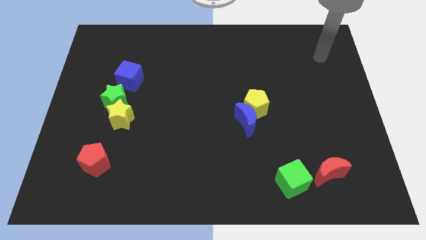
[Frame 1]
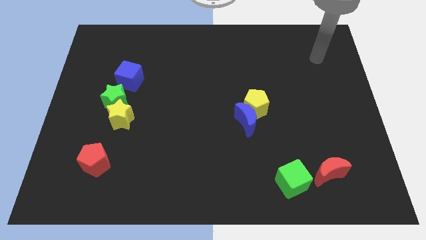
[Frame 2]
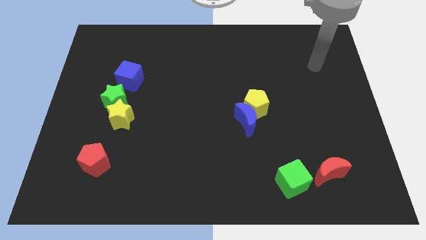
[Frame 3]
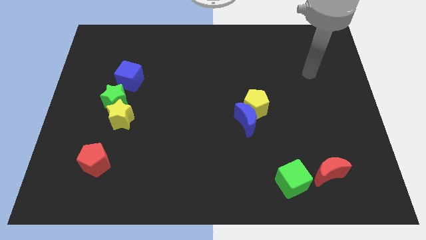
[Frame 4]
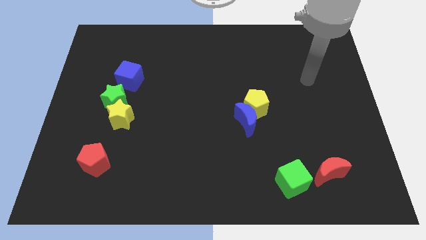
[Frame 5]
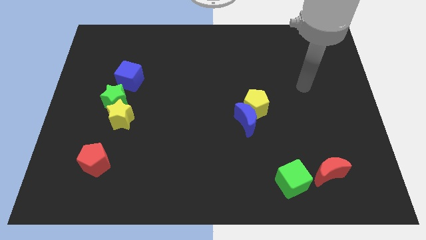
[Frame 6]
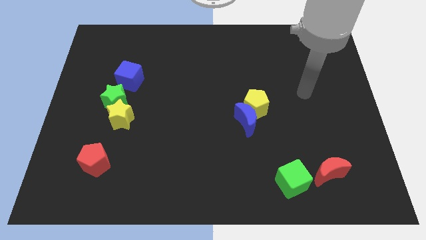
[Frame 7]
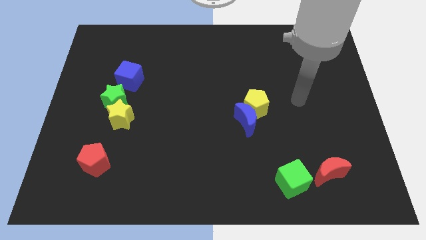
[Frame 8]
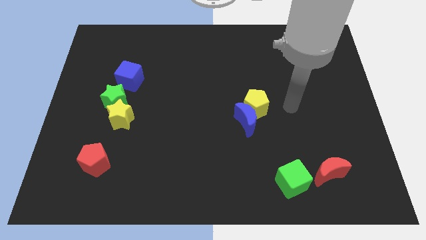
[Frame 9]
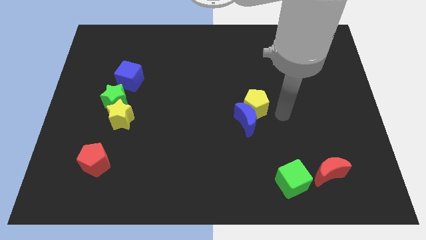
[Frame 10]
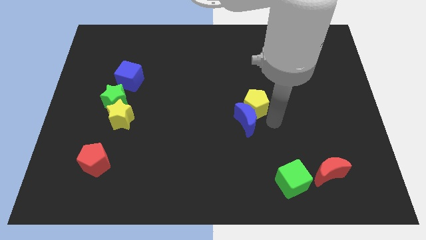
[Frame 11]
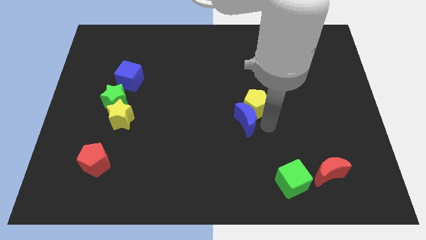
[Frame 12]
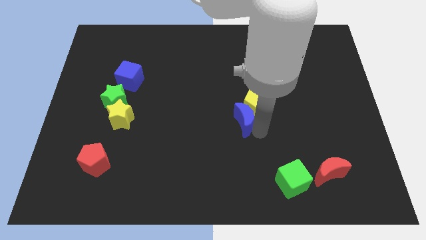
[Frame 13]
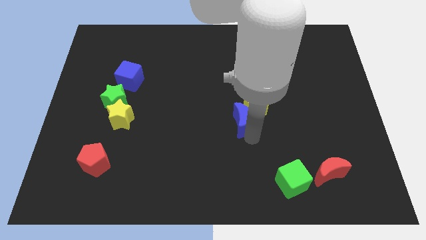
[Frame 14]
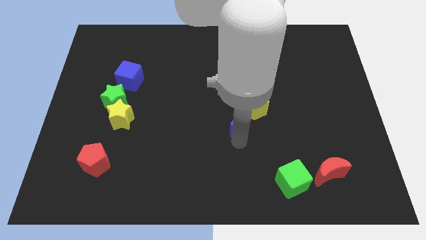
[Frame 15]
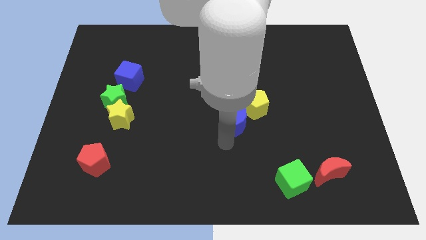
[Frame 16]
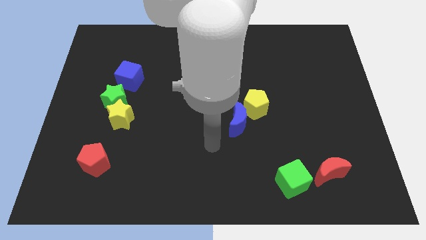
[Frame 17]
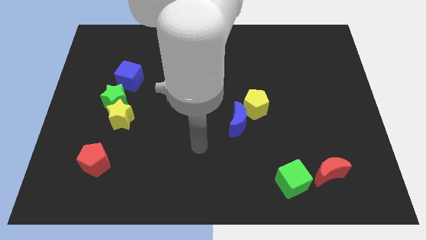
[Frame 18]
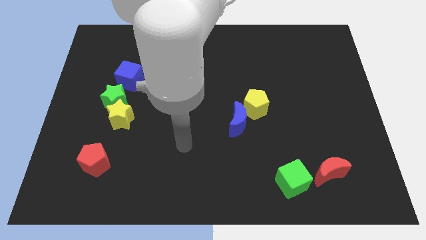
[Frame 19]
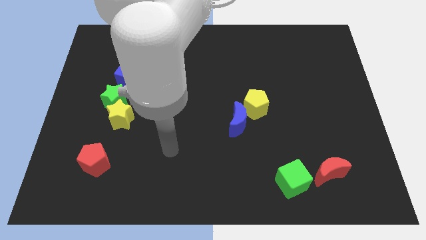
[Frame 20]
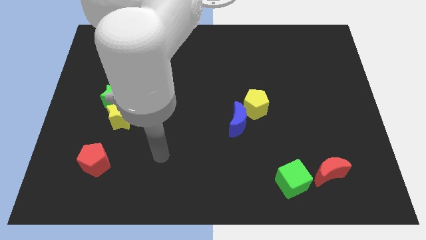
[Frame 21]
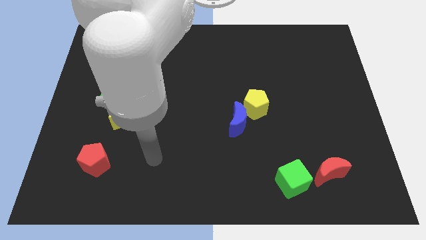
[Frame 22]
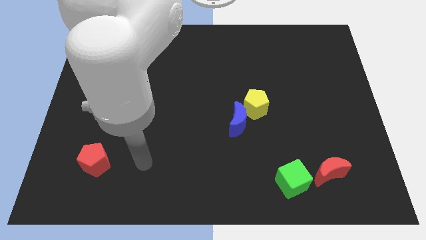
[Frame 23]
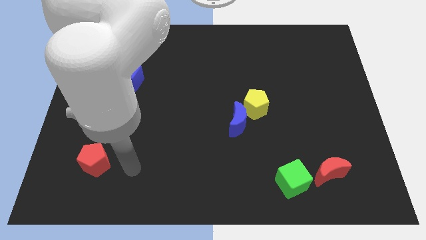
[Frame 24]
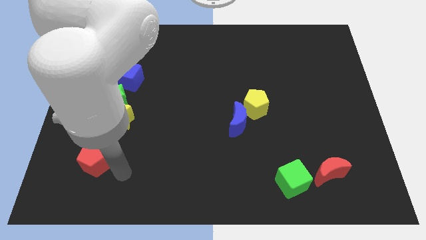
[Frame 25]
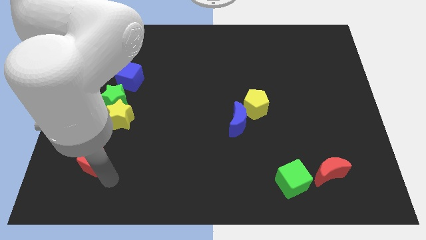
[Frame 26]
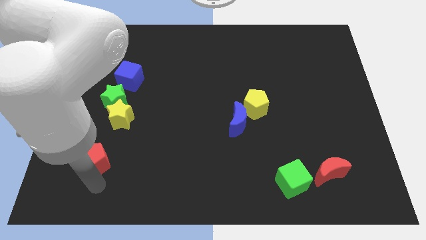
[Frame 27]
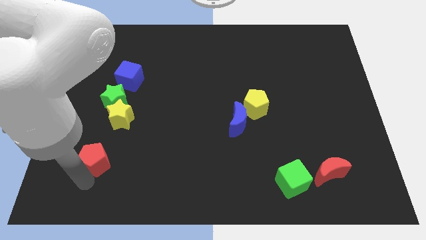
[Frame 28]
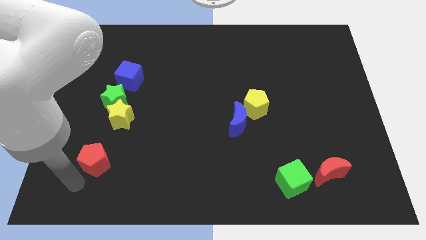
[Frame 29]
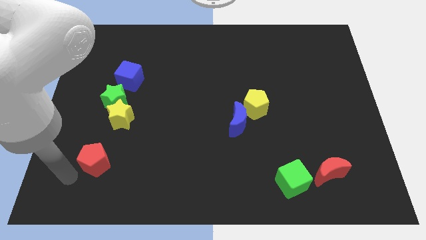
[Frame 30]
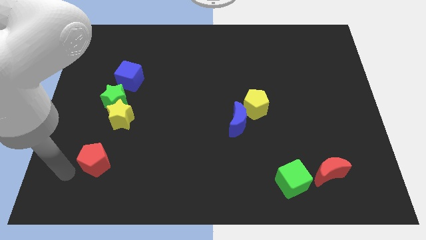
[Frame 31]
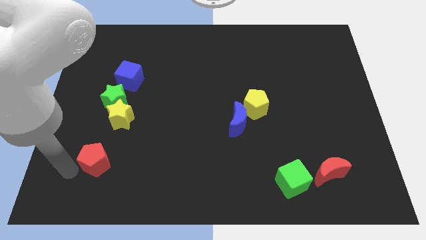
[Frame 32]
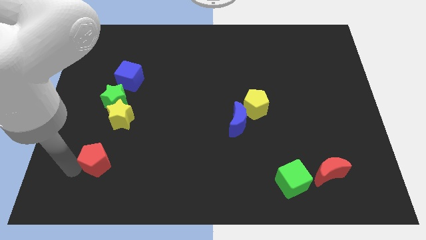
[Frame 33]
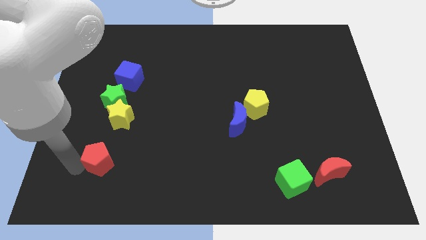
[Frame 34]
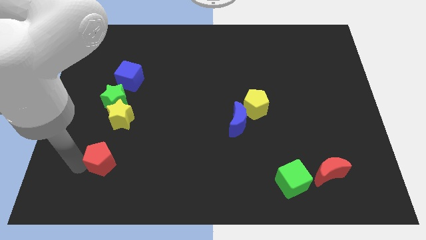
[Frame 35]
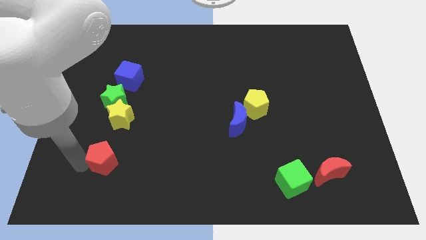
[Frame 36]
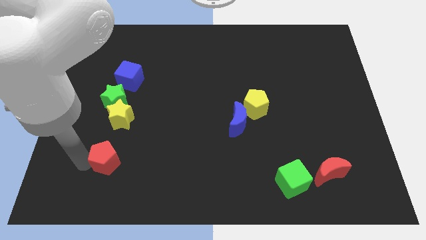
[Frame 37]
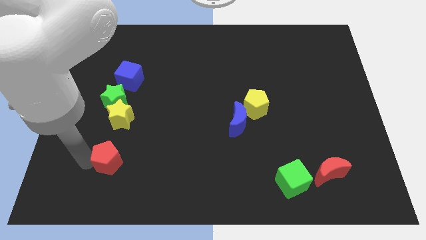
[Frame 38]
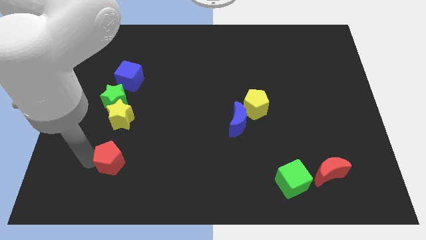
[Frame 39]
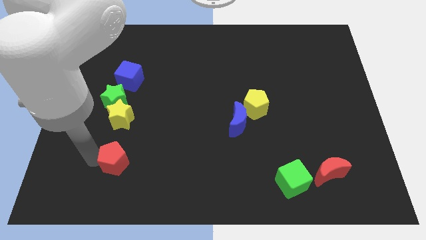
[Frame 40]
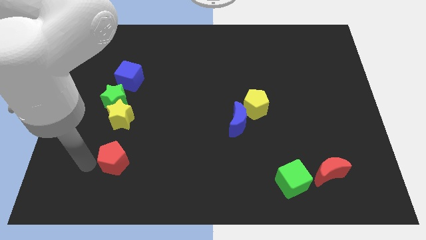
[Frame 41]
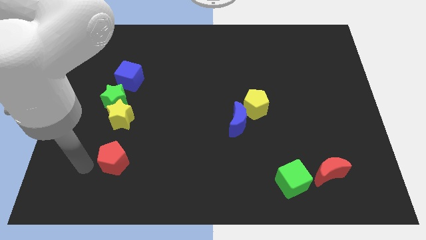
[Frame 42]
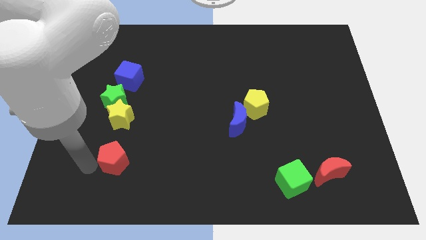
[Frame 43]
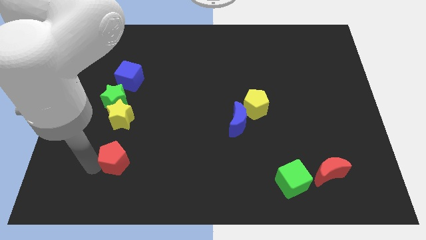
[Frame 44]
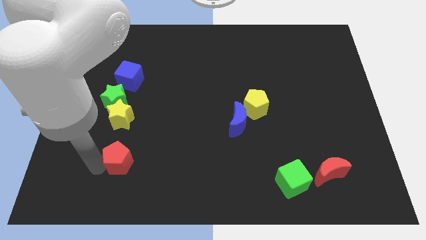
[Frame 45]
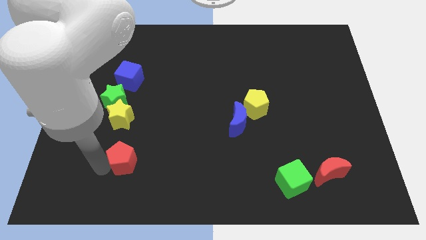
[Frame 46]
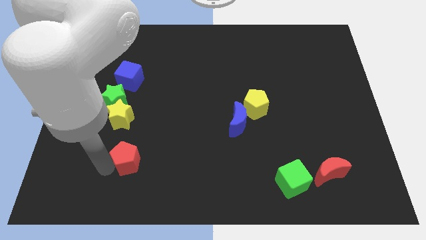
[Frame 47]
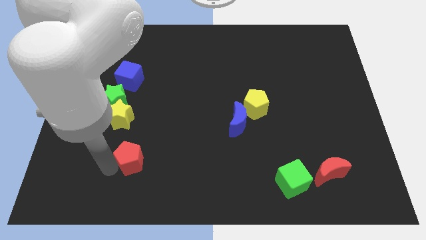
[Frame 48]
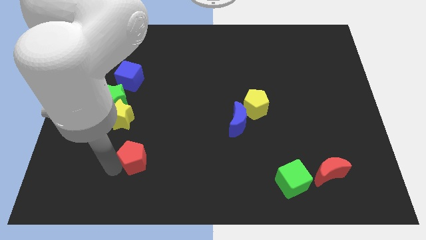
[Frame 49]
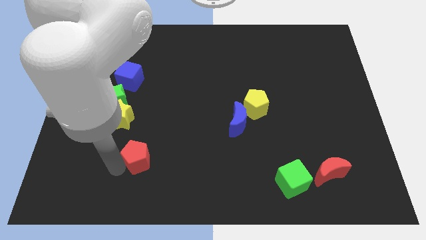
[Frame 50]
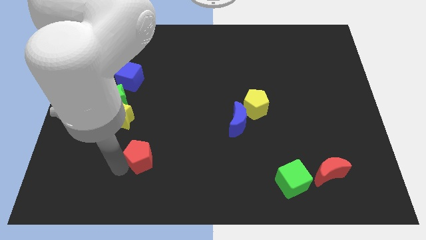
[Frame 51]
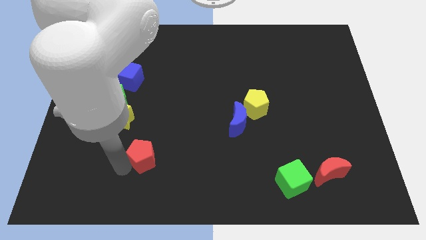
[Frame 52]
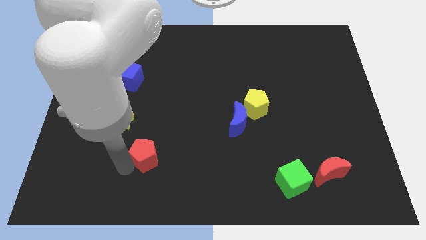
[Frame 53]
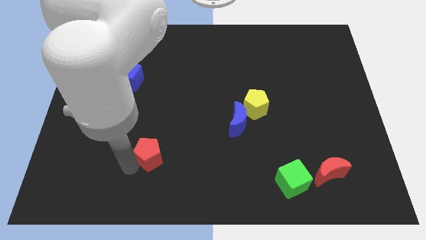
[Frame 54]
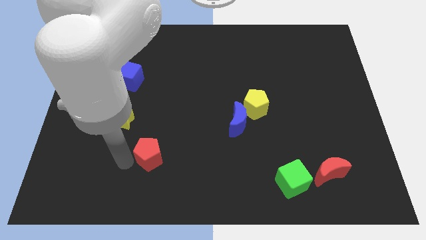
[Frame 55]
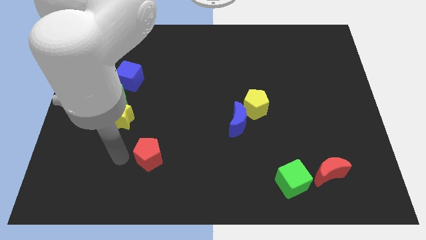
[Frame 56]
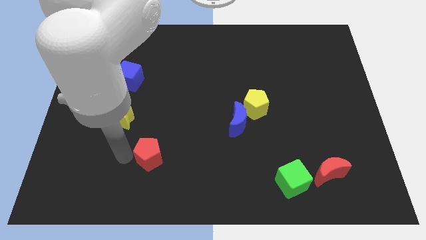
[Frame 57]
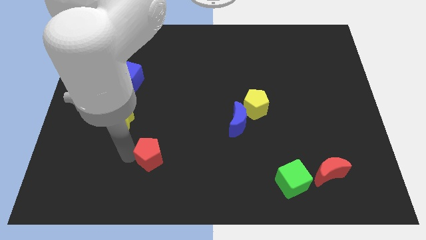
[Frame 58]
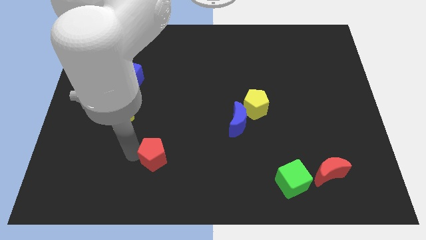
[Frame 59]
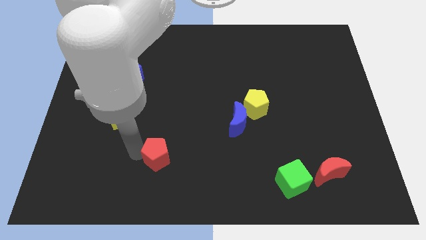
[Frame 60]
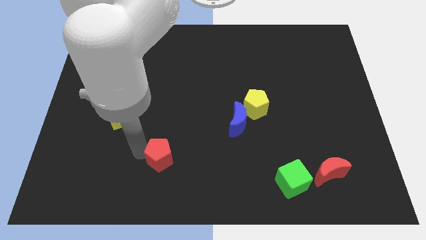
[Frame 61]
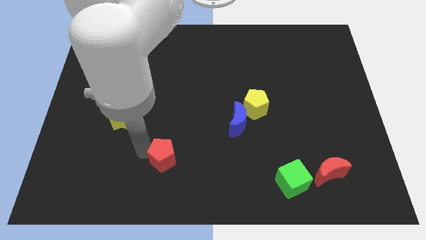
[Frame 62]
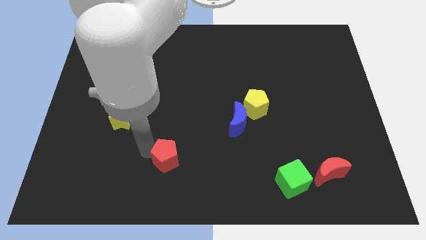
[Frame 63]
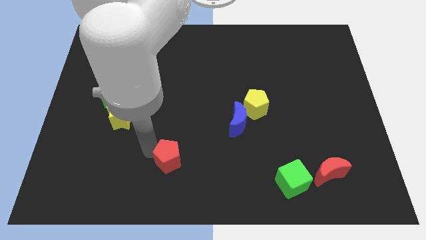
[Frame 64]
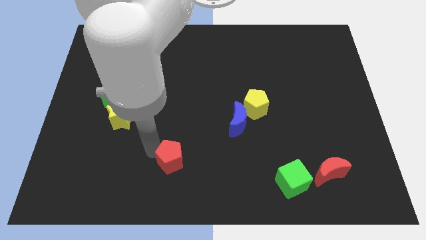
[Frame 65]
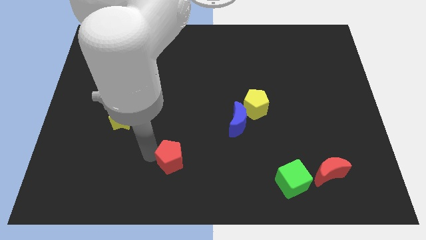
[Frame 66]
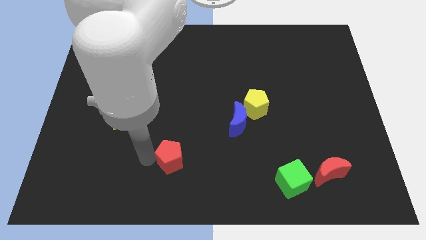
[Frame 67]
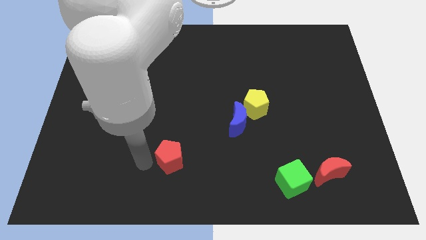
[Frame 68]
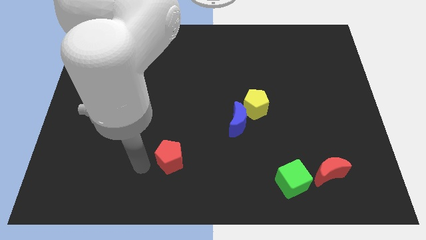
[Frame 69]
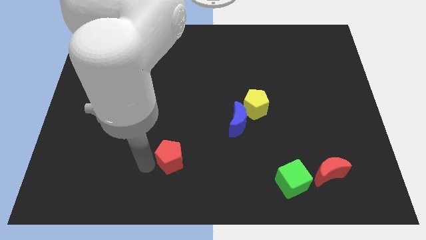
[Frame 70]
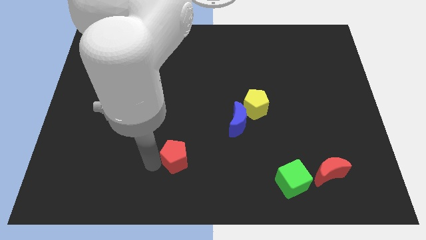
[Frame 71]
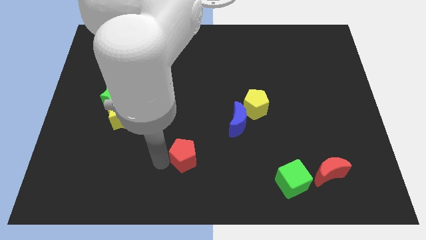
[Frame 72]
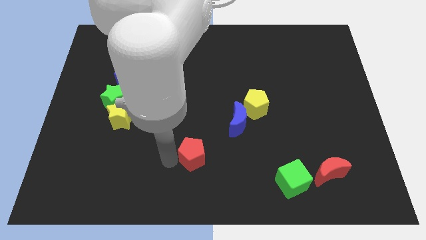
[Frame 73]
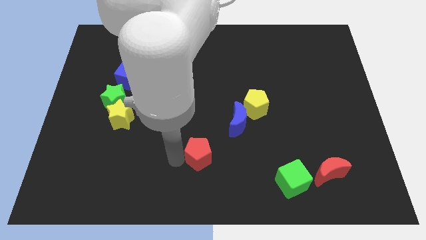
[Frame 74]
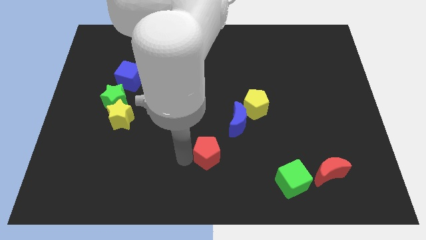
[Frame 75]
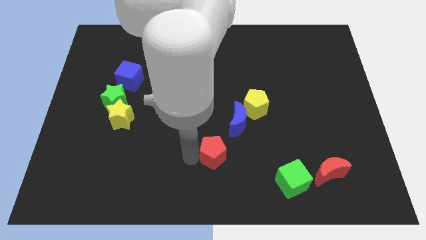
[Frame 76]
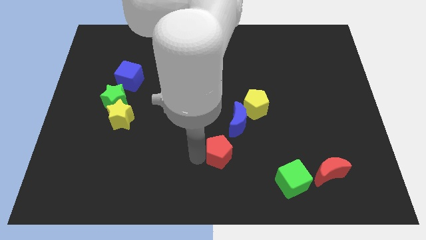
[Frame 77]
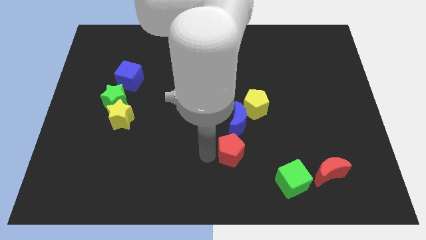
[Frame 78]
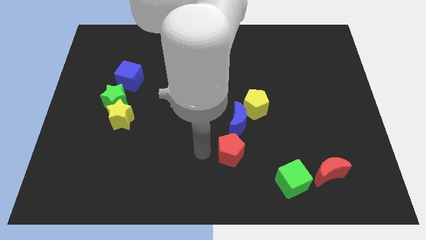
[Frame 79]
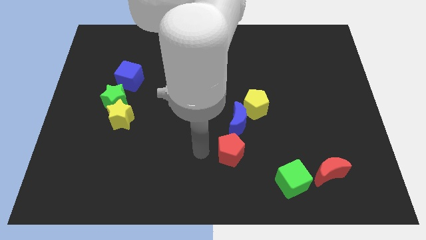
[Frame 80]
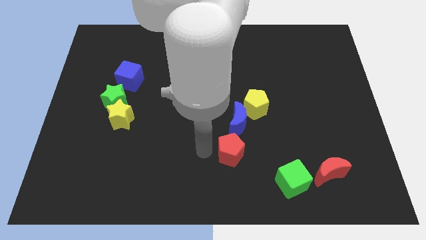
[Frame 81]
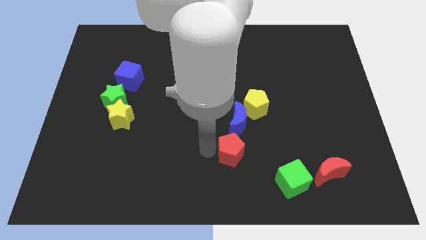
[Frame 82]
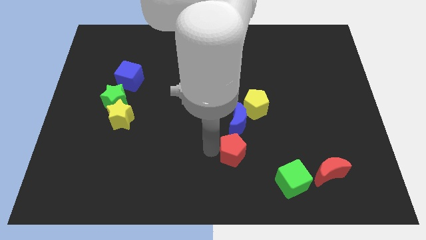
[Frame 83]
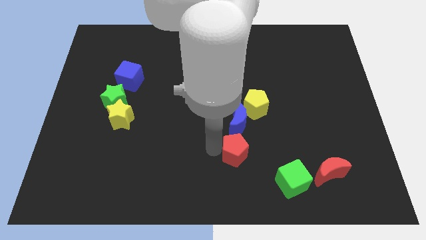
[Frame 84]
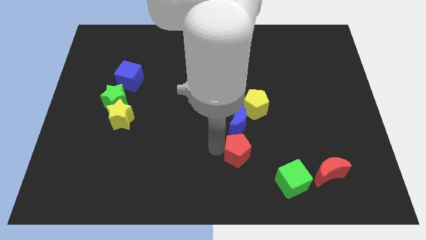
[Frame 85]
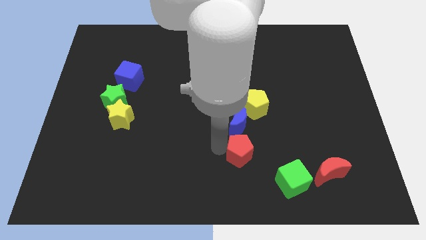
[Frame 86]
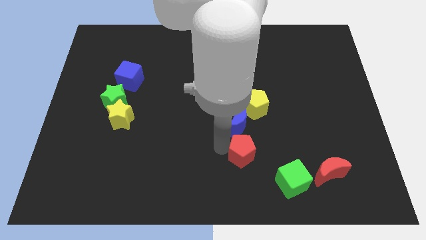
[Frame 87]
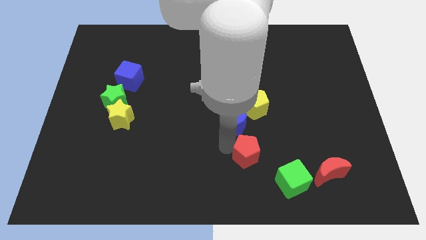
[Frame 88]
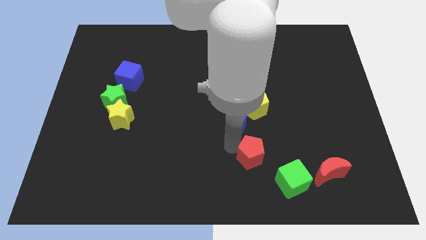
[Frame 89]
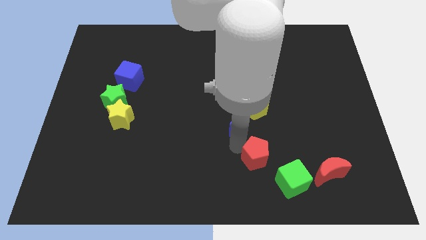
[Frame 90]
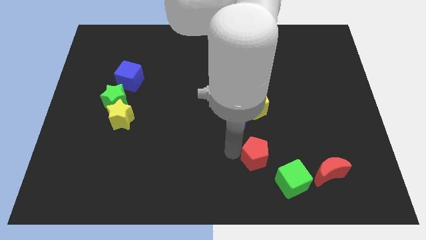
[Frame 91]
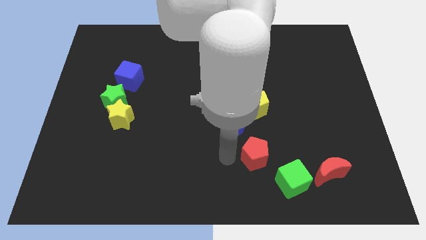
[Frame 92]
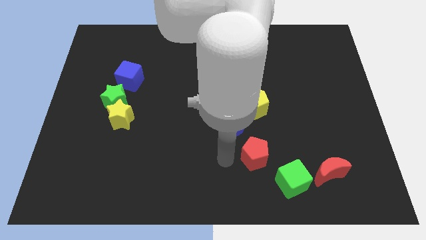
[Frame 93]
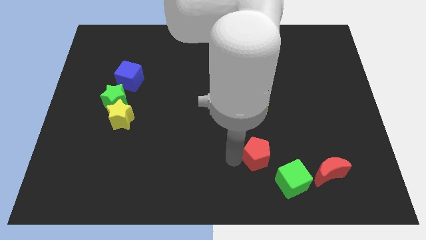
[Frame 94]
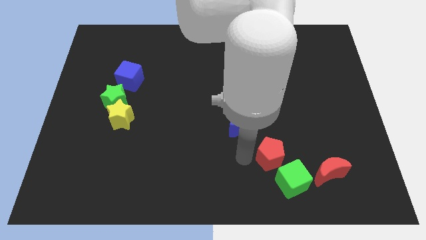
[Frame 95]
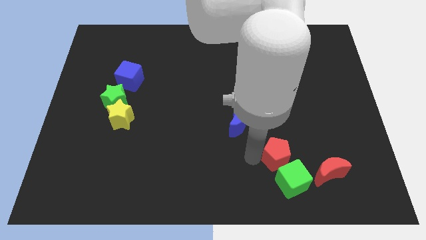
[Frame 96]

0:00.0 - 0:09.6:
push the red pentagon to the top left of the red moon
